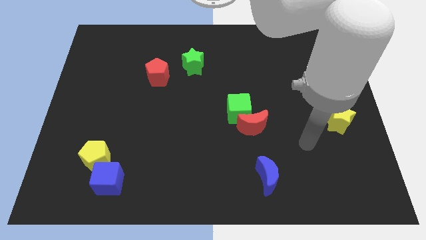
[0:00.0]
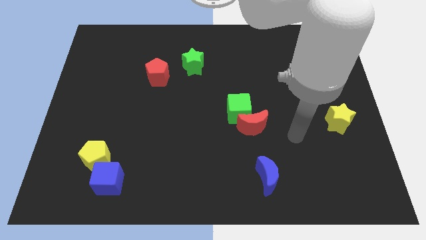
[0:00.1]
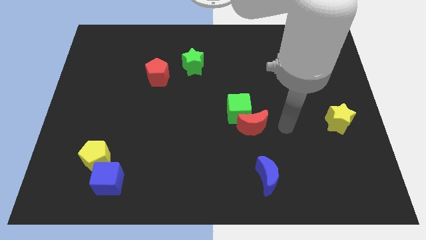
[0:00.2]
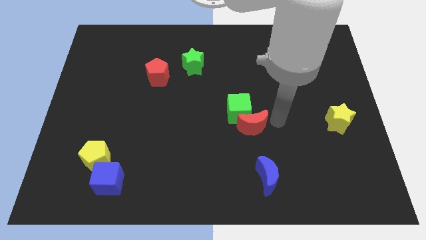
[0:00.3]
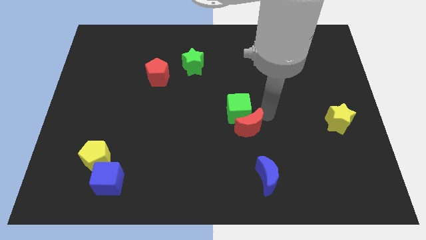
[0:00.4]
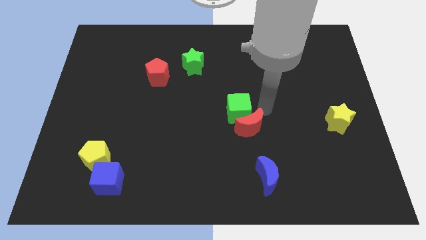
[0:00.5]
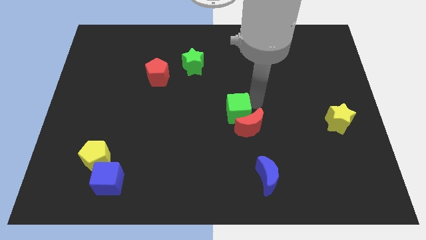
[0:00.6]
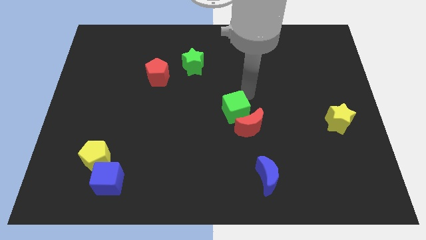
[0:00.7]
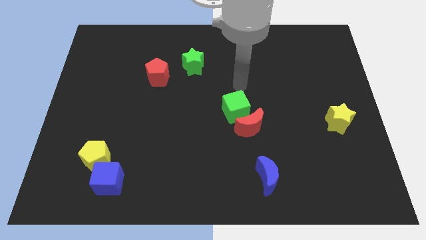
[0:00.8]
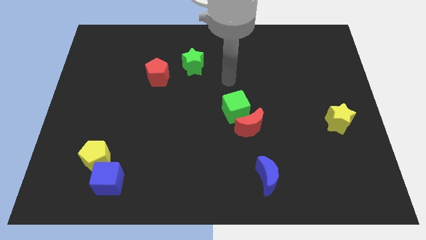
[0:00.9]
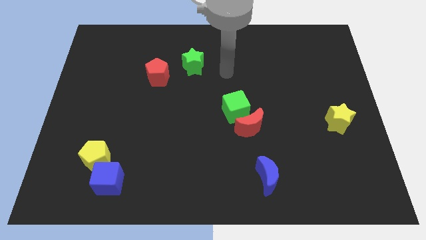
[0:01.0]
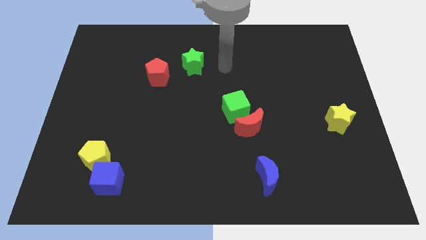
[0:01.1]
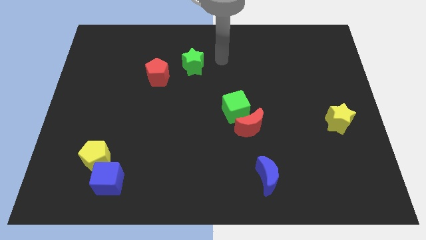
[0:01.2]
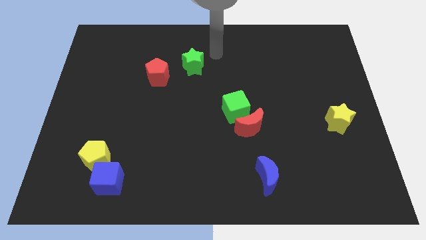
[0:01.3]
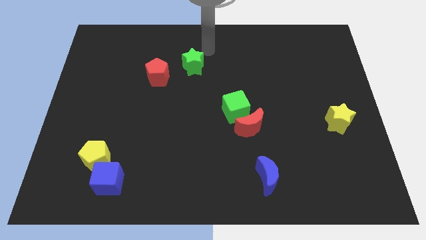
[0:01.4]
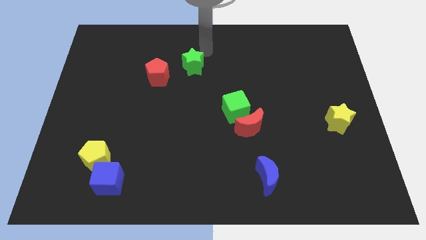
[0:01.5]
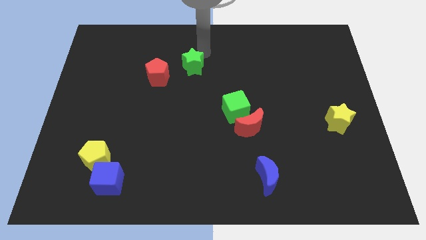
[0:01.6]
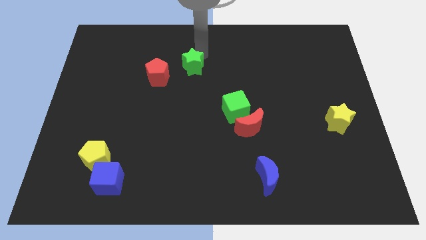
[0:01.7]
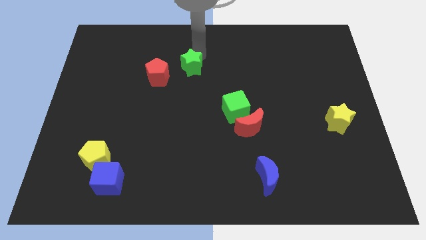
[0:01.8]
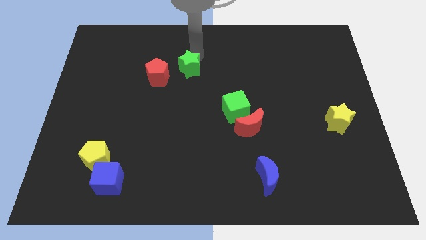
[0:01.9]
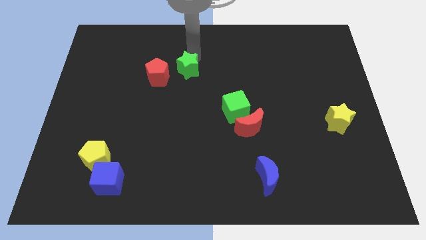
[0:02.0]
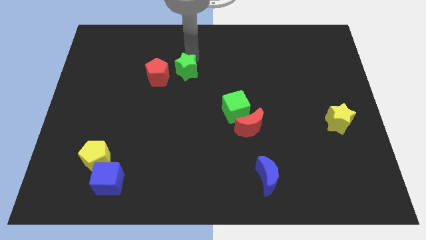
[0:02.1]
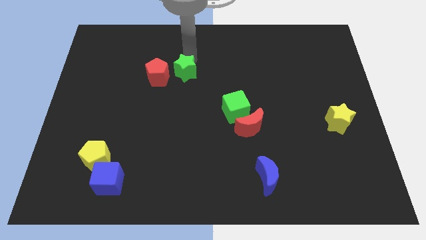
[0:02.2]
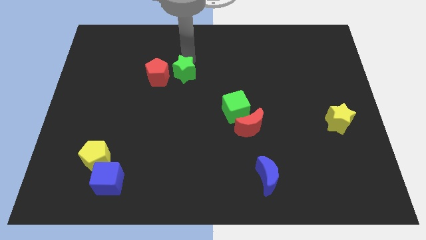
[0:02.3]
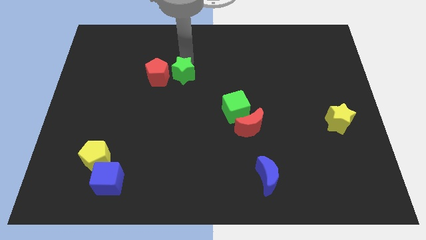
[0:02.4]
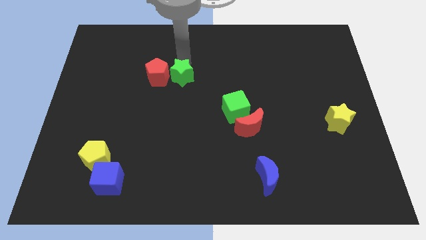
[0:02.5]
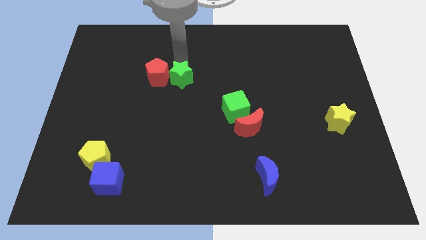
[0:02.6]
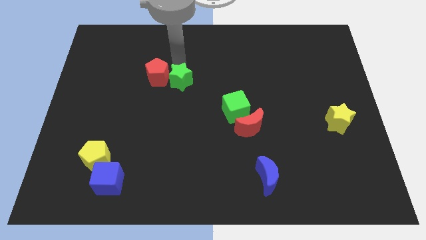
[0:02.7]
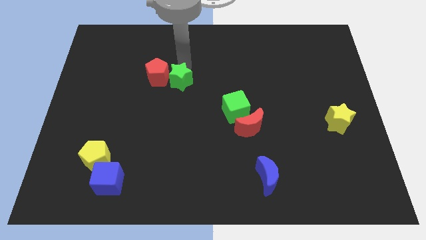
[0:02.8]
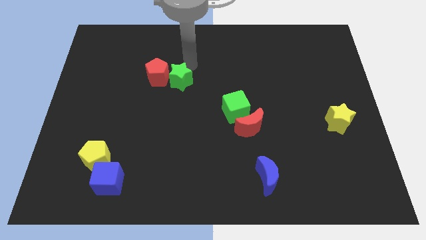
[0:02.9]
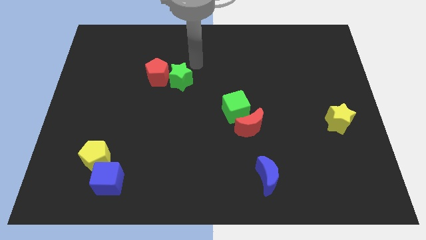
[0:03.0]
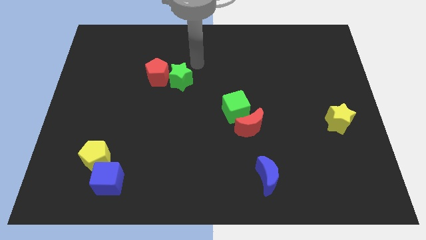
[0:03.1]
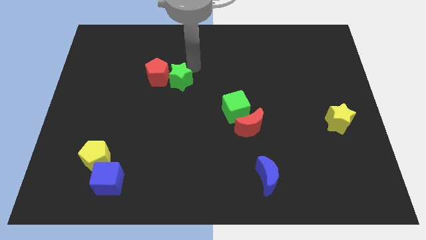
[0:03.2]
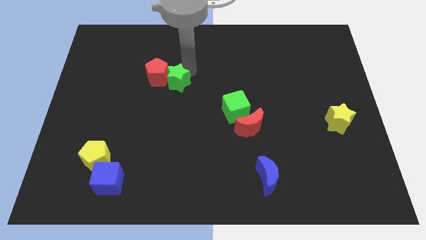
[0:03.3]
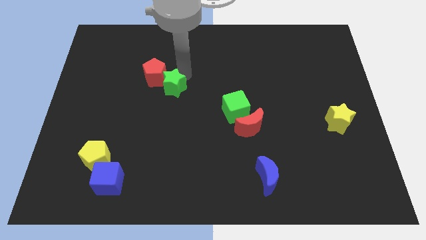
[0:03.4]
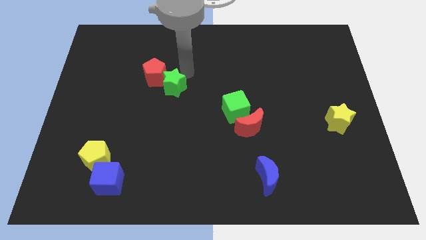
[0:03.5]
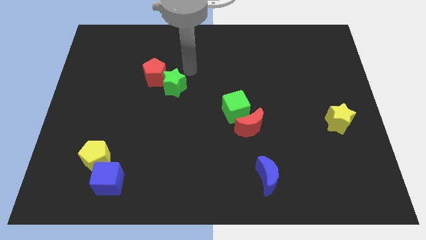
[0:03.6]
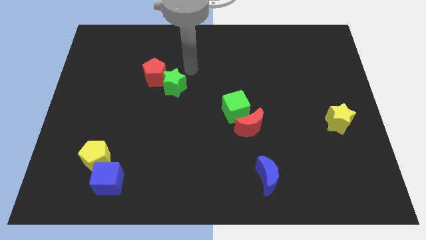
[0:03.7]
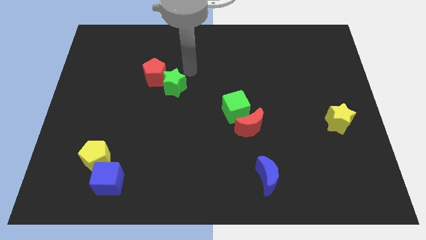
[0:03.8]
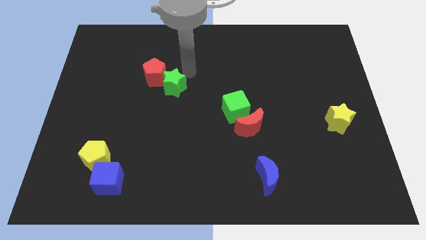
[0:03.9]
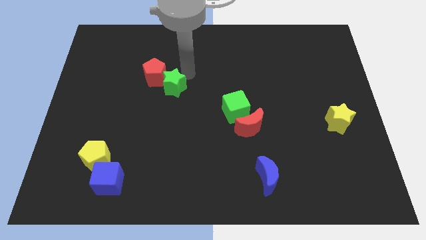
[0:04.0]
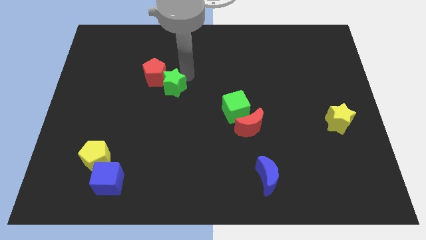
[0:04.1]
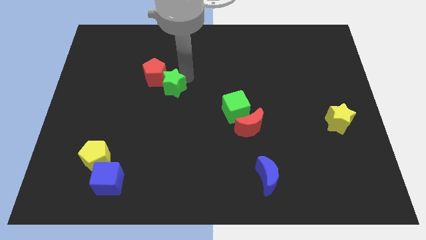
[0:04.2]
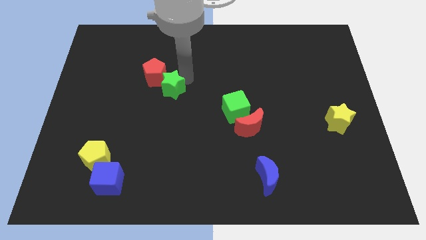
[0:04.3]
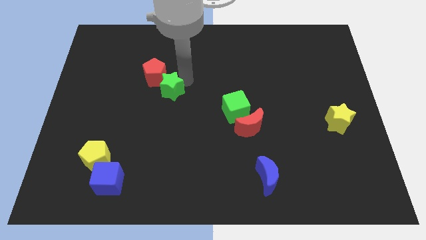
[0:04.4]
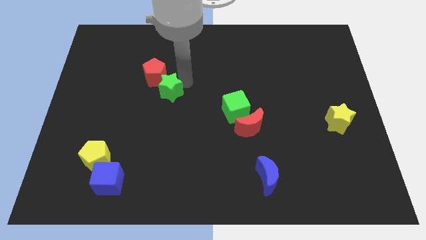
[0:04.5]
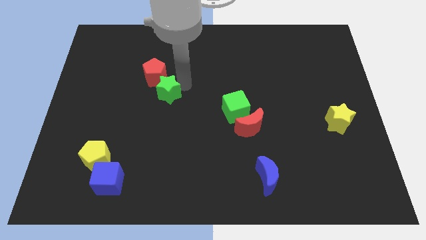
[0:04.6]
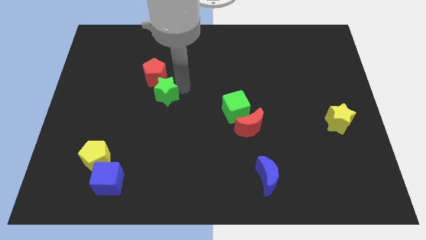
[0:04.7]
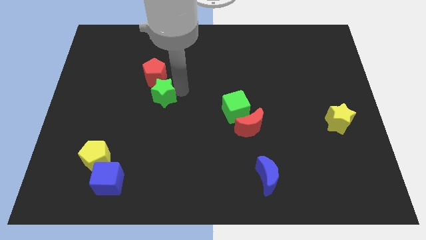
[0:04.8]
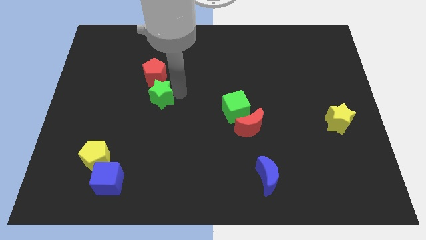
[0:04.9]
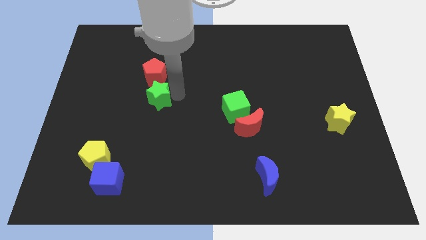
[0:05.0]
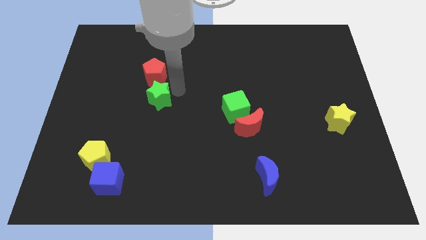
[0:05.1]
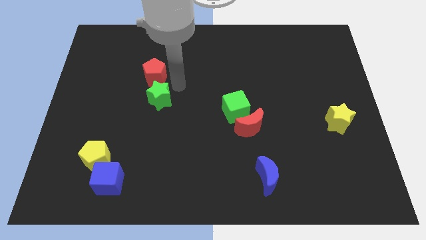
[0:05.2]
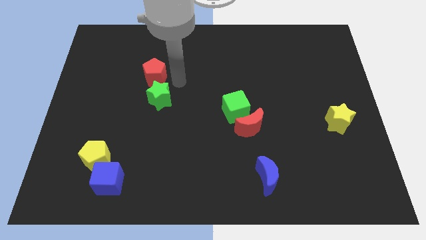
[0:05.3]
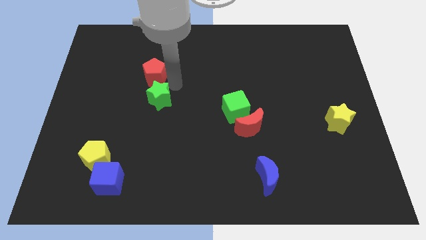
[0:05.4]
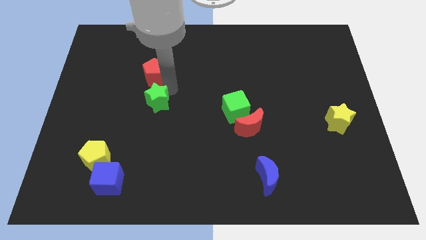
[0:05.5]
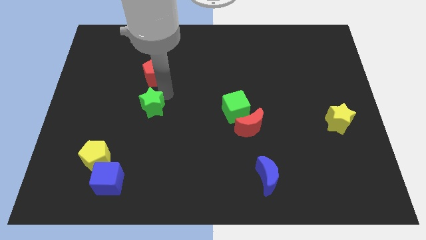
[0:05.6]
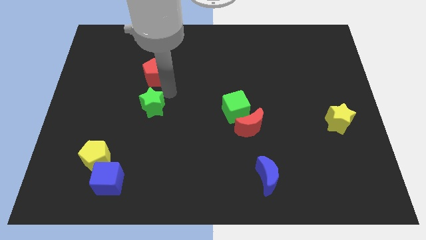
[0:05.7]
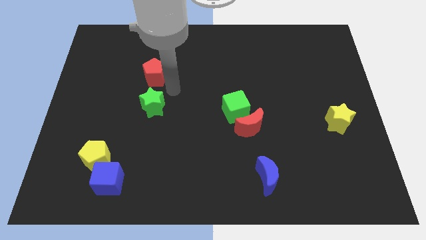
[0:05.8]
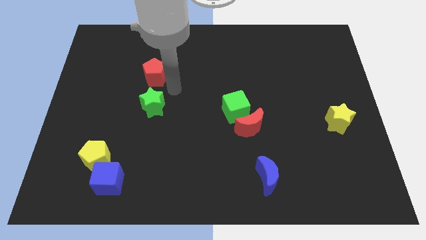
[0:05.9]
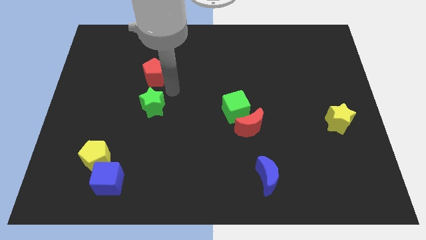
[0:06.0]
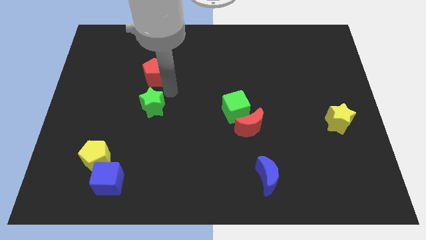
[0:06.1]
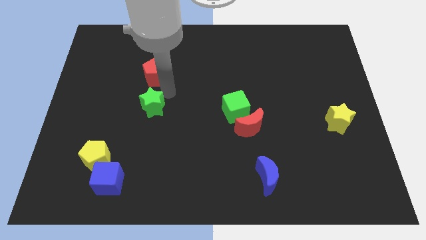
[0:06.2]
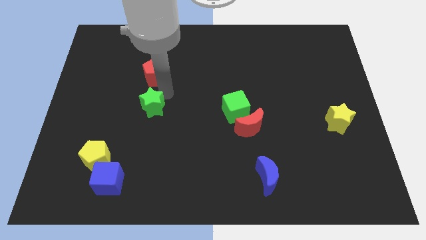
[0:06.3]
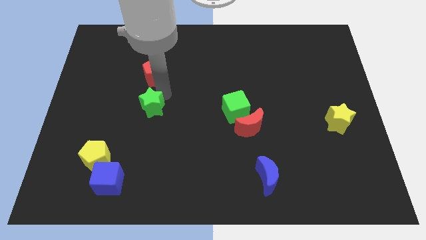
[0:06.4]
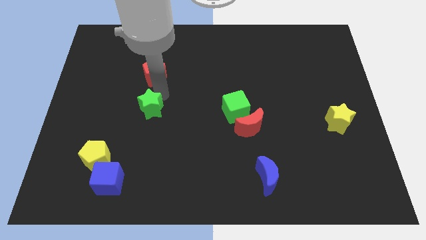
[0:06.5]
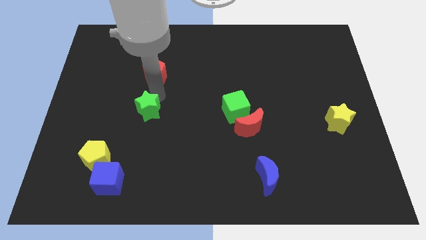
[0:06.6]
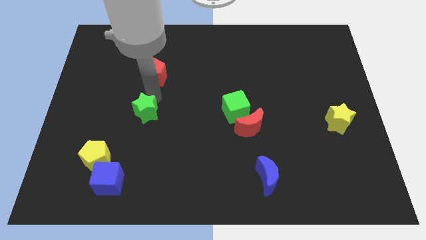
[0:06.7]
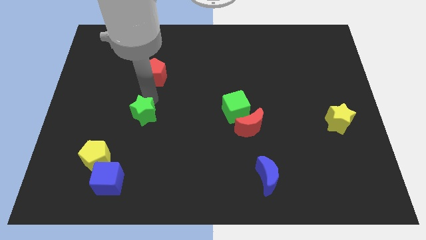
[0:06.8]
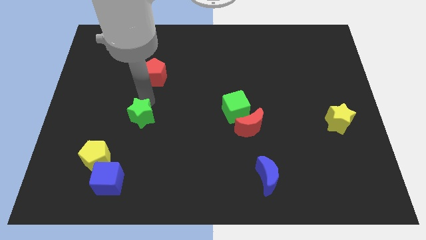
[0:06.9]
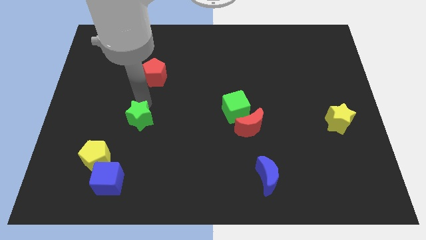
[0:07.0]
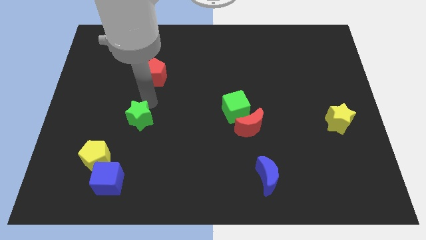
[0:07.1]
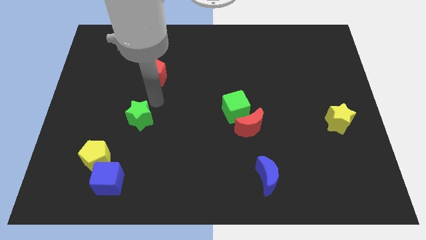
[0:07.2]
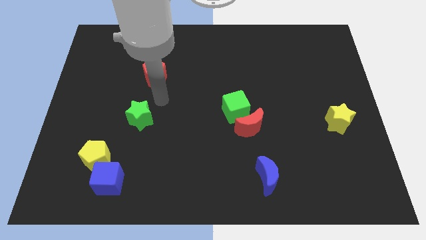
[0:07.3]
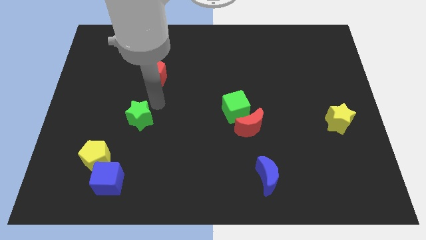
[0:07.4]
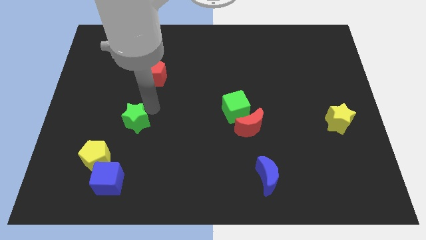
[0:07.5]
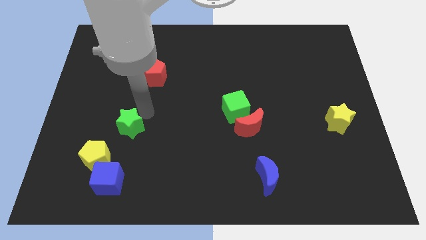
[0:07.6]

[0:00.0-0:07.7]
put the green star to the top side of the blue cube
